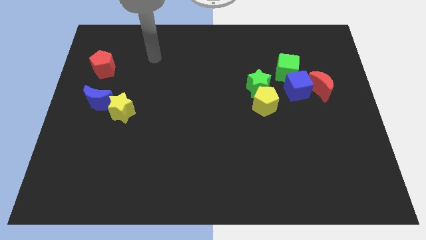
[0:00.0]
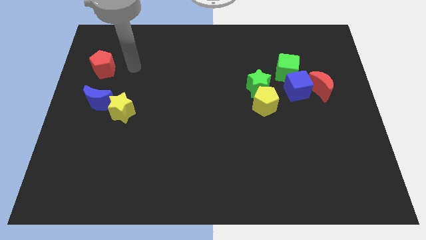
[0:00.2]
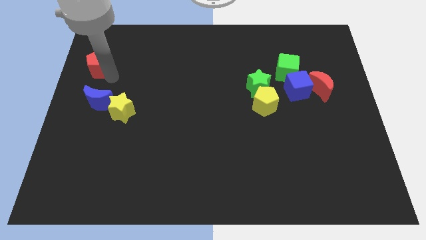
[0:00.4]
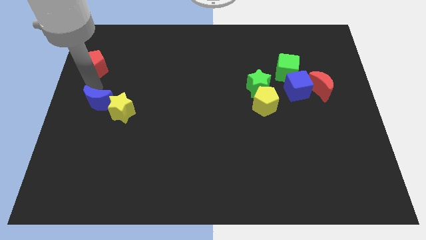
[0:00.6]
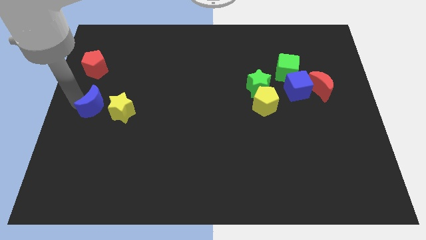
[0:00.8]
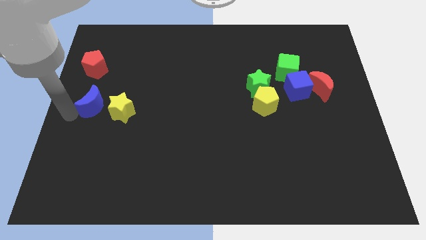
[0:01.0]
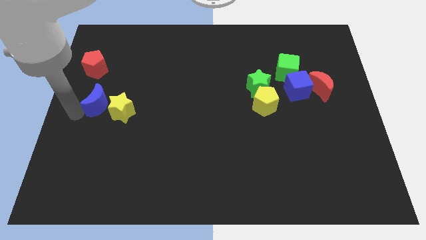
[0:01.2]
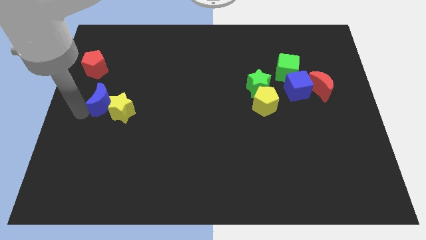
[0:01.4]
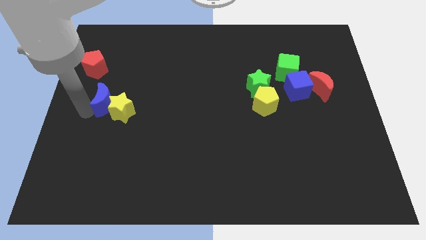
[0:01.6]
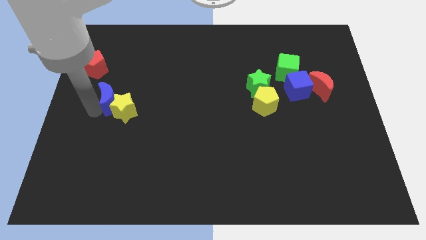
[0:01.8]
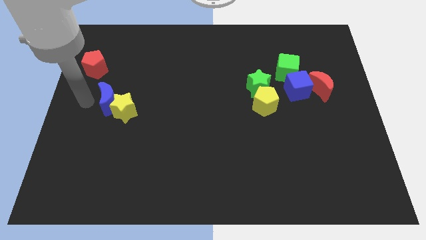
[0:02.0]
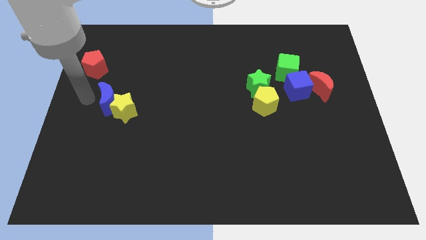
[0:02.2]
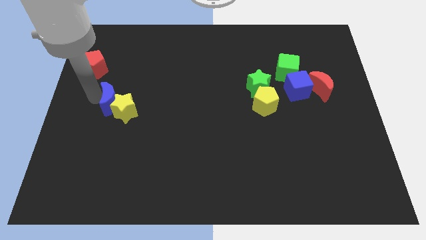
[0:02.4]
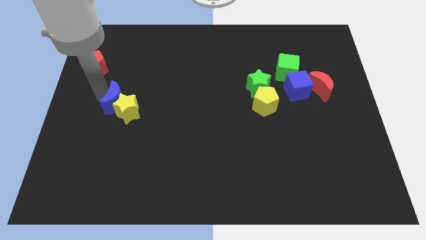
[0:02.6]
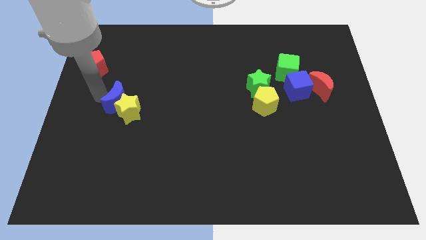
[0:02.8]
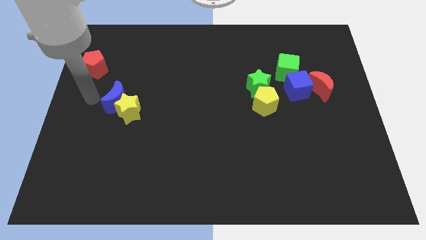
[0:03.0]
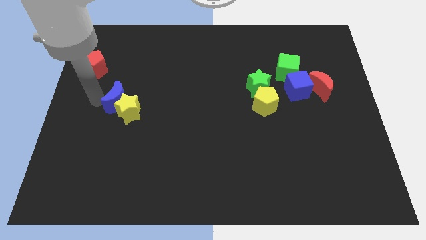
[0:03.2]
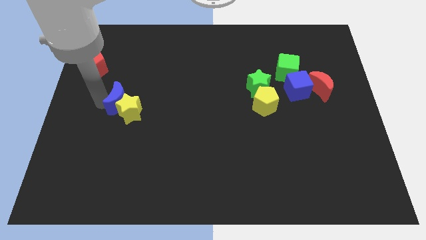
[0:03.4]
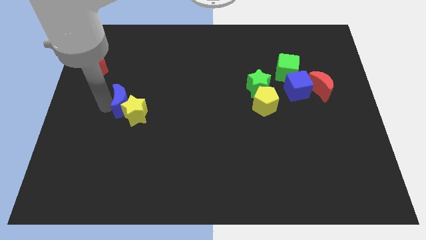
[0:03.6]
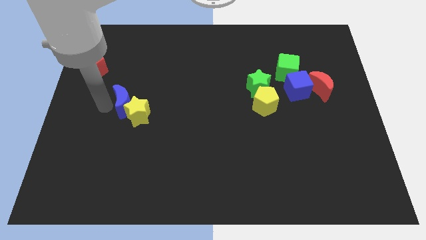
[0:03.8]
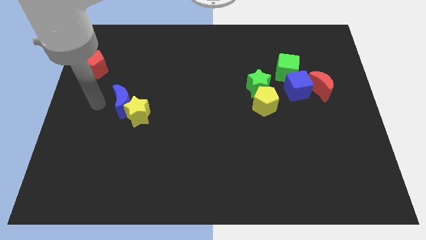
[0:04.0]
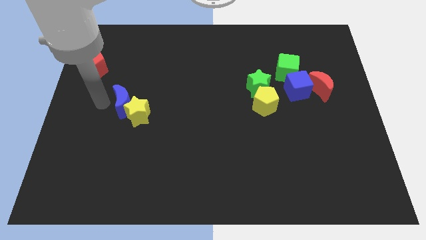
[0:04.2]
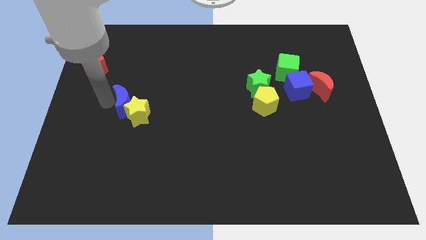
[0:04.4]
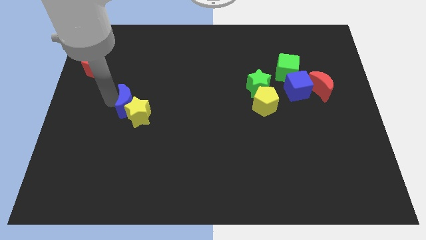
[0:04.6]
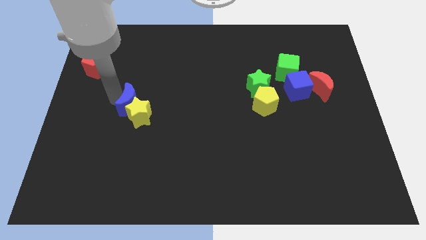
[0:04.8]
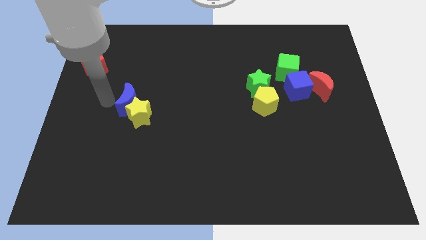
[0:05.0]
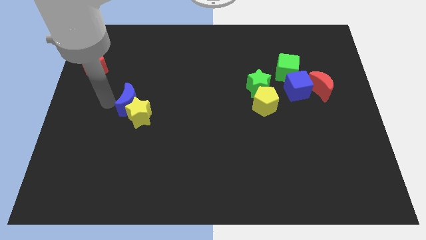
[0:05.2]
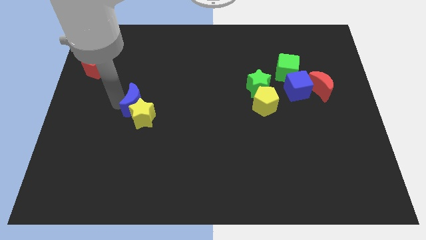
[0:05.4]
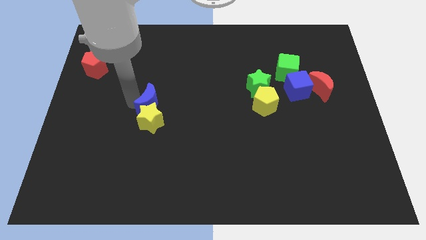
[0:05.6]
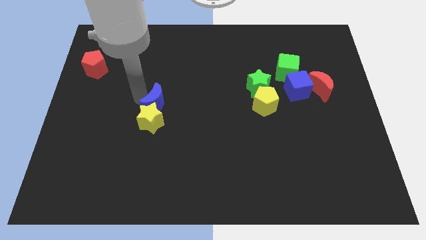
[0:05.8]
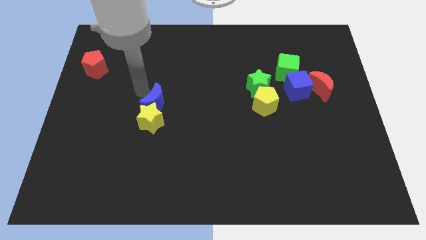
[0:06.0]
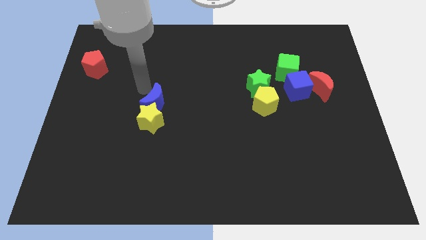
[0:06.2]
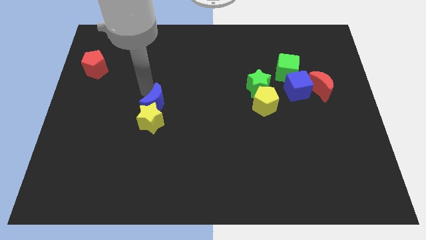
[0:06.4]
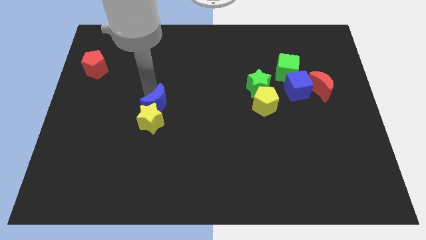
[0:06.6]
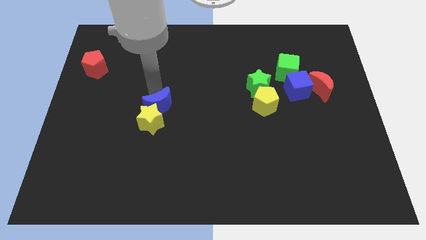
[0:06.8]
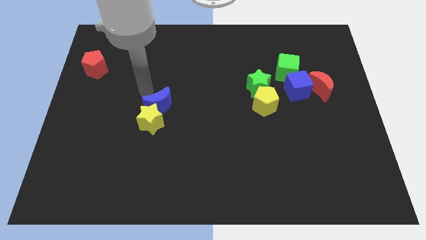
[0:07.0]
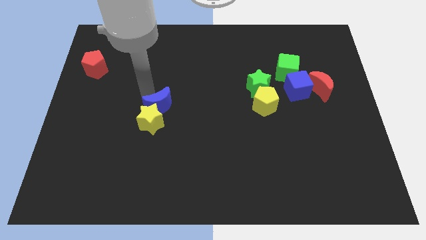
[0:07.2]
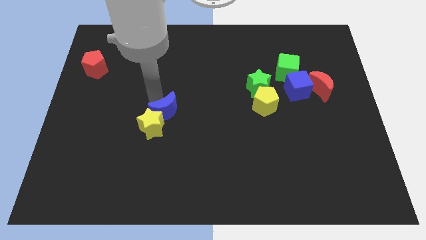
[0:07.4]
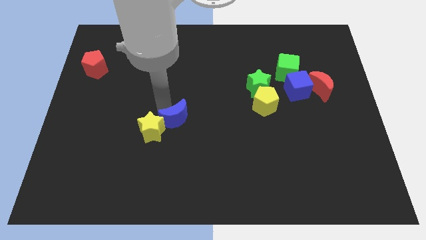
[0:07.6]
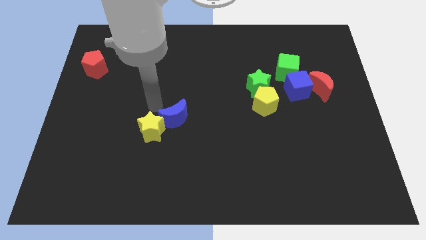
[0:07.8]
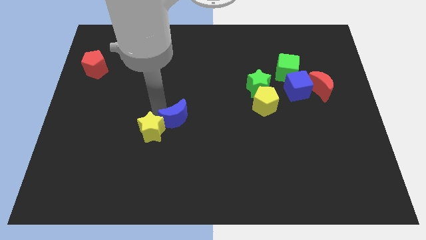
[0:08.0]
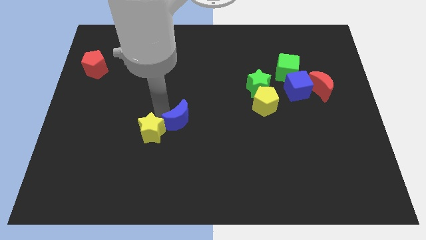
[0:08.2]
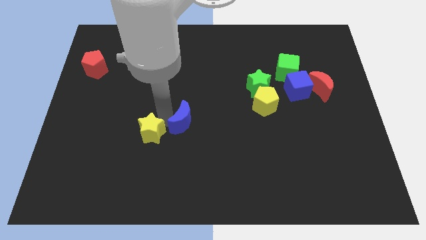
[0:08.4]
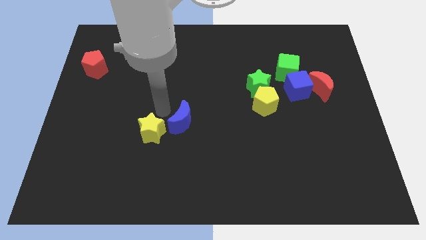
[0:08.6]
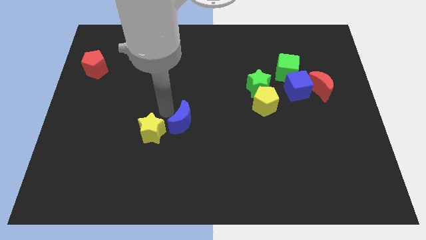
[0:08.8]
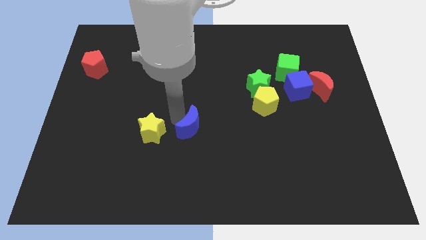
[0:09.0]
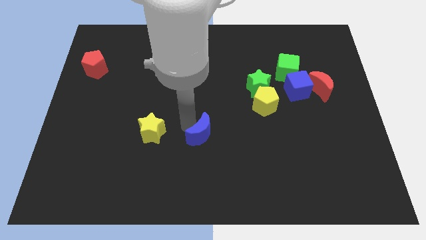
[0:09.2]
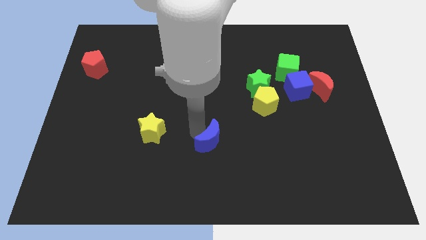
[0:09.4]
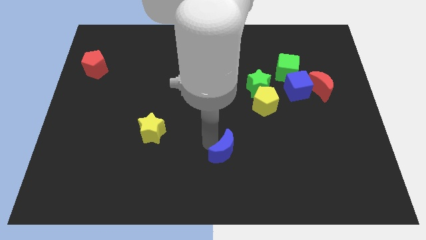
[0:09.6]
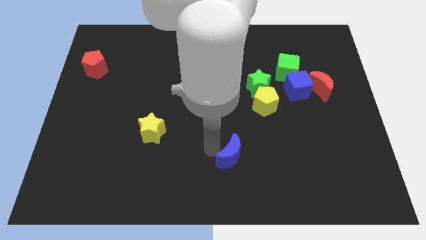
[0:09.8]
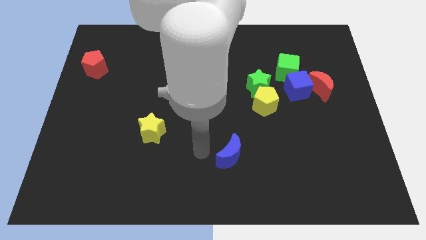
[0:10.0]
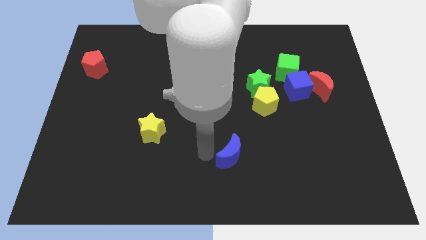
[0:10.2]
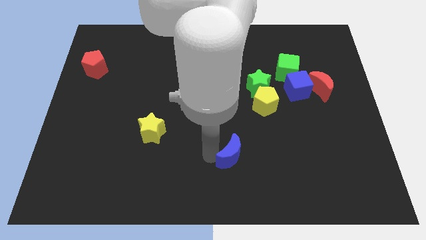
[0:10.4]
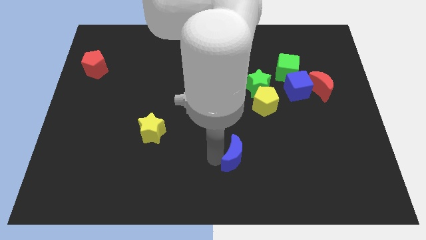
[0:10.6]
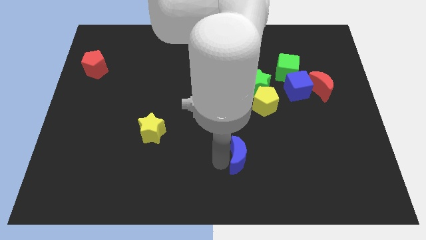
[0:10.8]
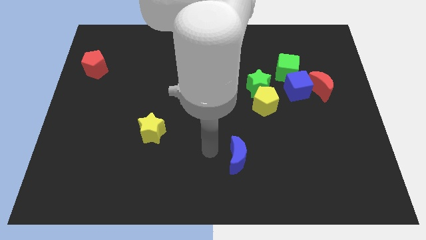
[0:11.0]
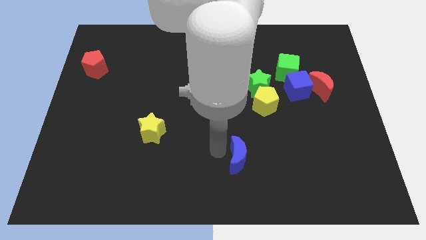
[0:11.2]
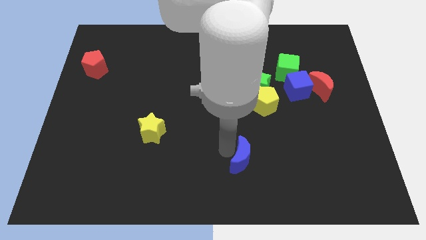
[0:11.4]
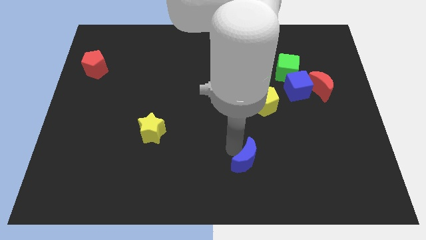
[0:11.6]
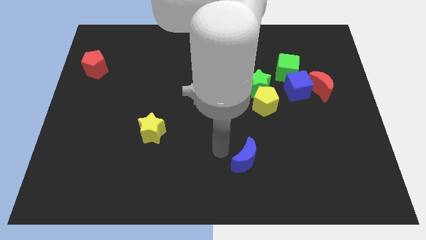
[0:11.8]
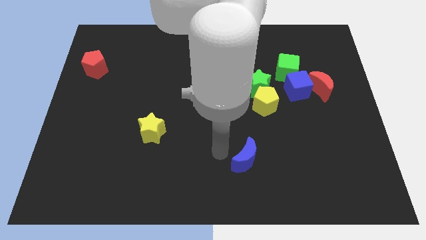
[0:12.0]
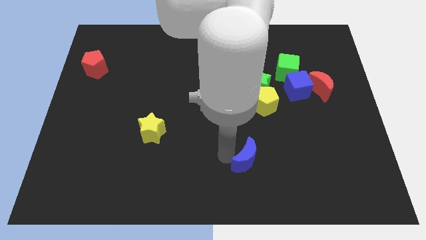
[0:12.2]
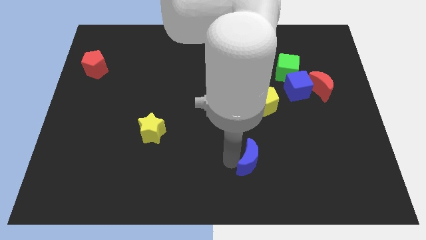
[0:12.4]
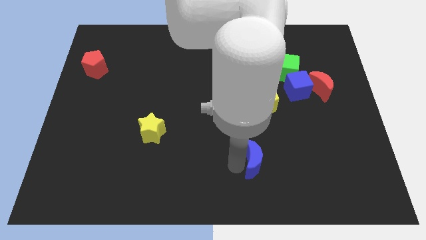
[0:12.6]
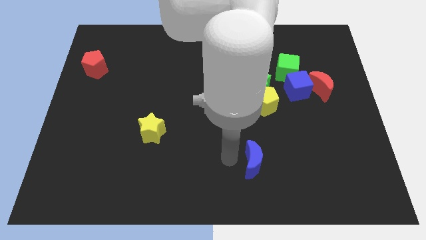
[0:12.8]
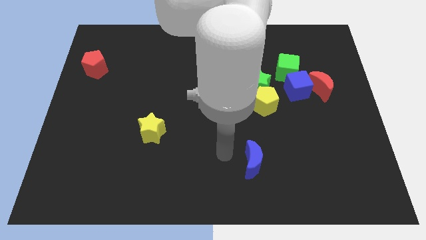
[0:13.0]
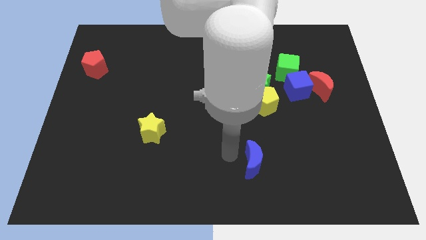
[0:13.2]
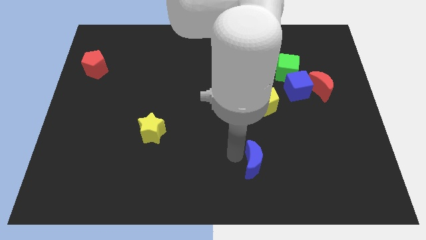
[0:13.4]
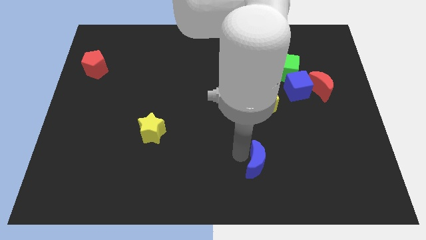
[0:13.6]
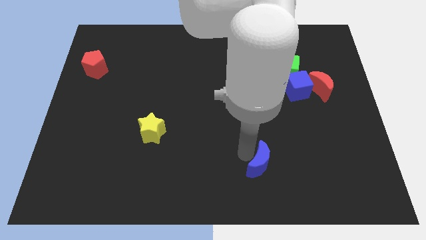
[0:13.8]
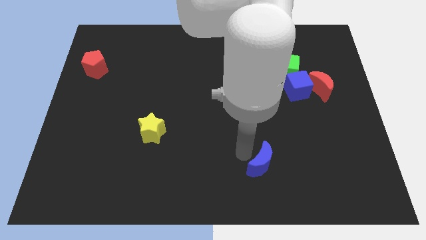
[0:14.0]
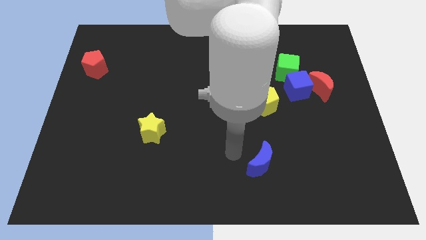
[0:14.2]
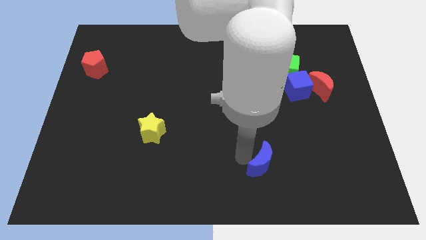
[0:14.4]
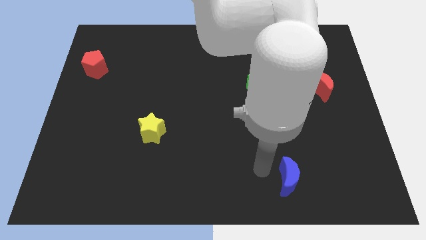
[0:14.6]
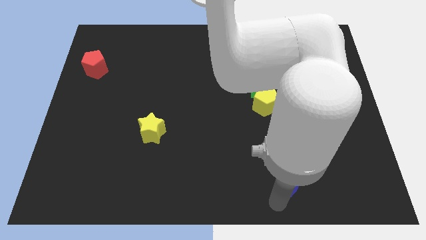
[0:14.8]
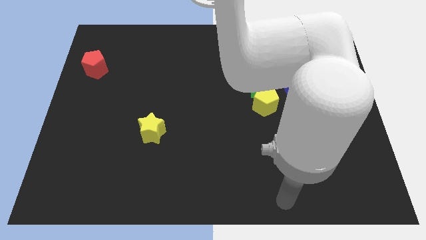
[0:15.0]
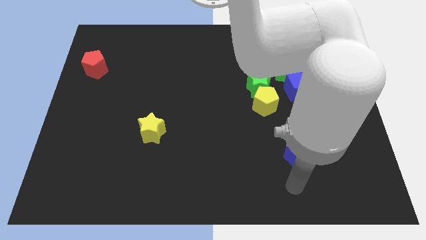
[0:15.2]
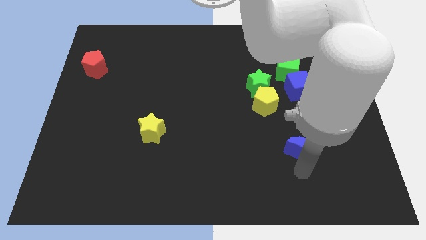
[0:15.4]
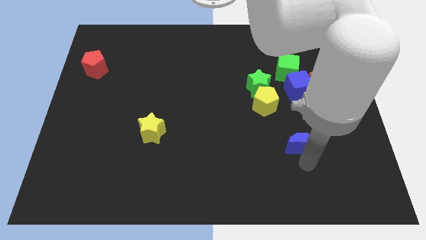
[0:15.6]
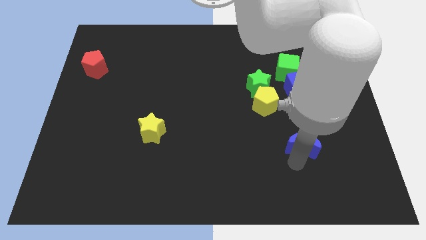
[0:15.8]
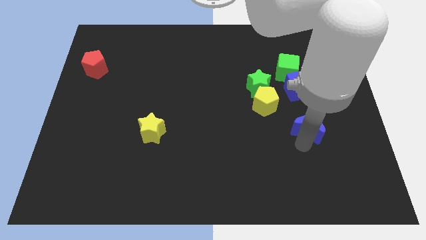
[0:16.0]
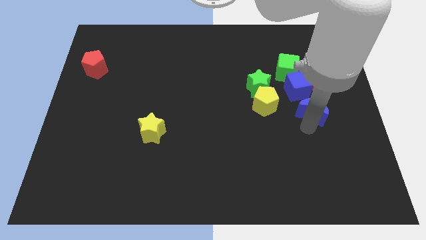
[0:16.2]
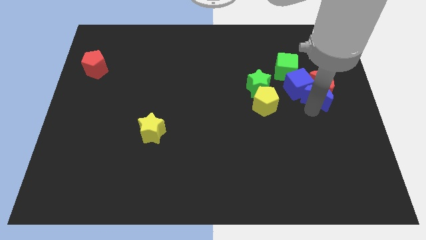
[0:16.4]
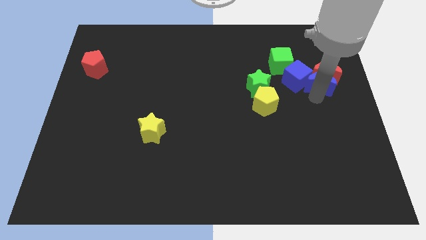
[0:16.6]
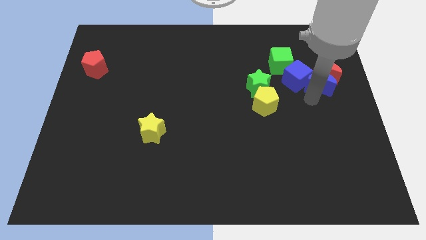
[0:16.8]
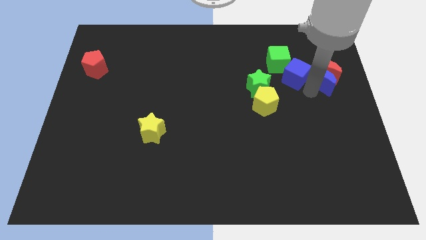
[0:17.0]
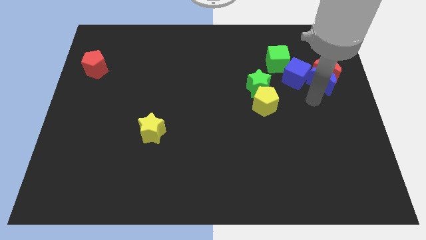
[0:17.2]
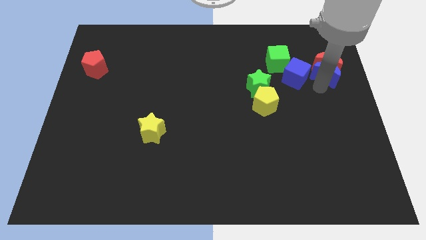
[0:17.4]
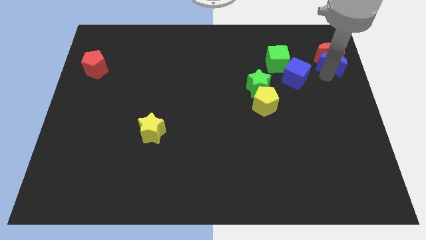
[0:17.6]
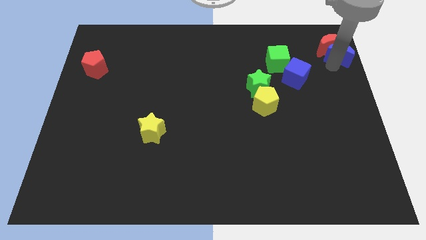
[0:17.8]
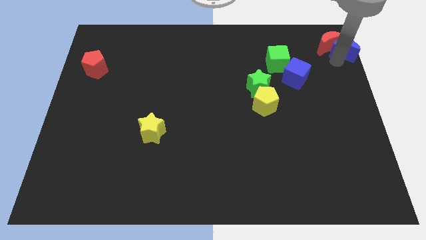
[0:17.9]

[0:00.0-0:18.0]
move the blue moon to the top right of the board
